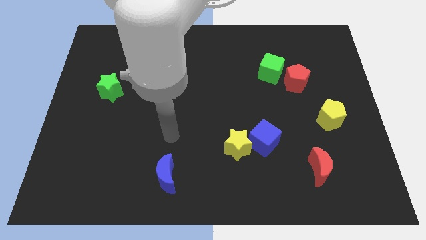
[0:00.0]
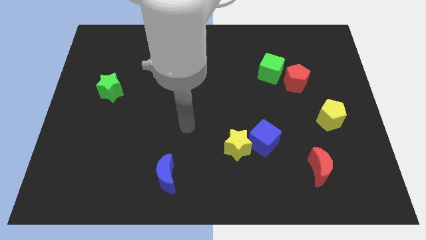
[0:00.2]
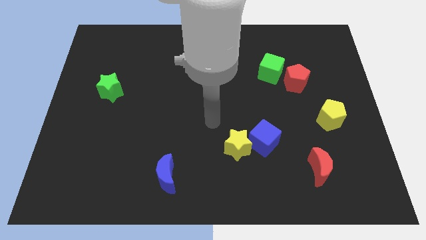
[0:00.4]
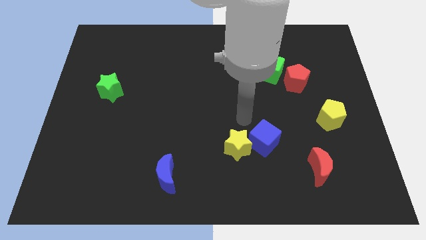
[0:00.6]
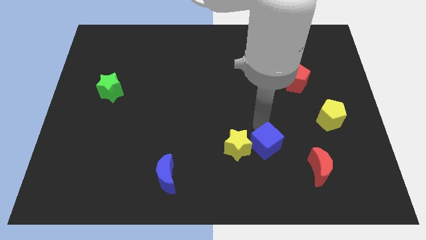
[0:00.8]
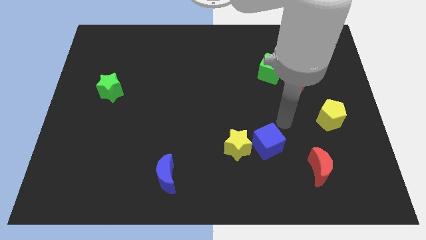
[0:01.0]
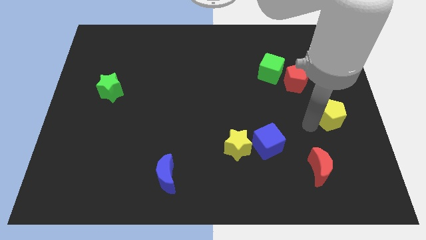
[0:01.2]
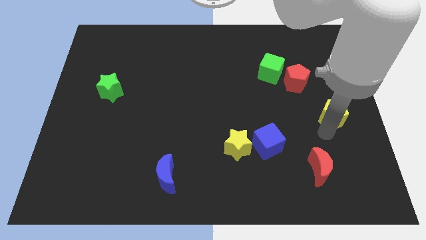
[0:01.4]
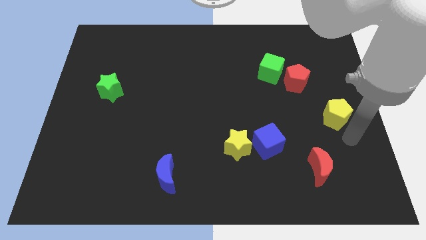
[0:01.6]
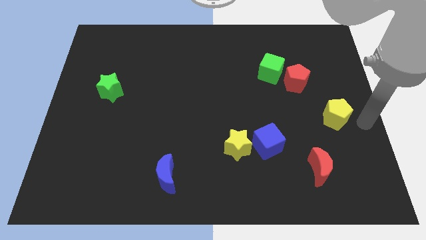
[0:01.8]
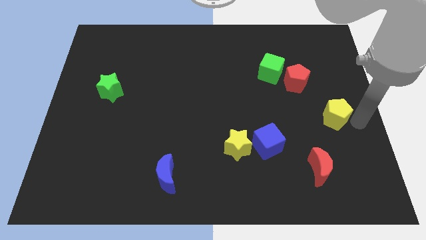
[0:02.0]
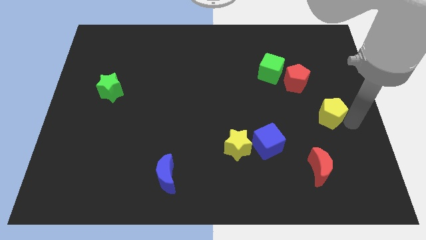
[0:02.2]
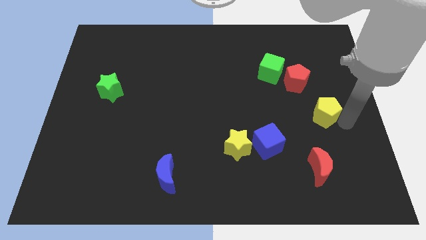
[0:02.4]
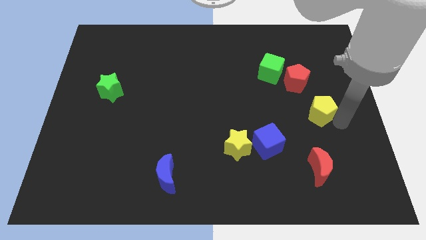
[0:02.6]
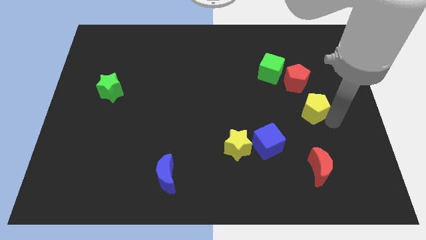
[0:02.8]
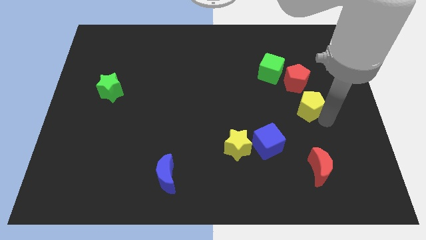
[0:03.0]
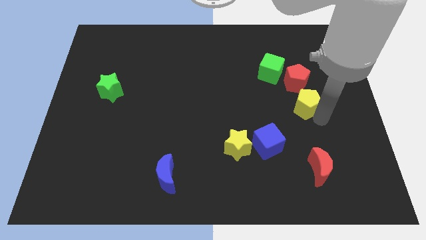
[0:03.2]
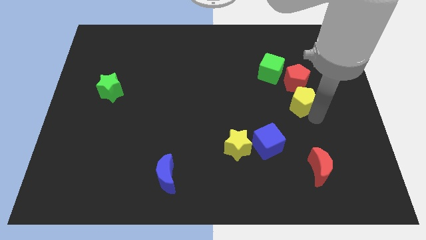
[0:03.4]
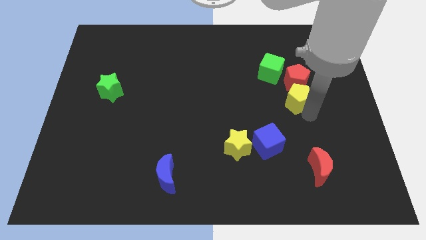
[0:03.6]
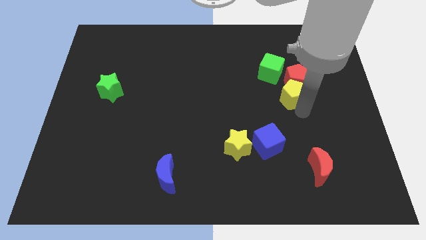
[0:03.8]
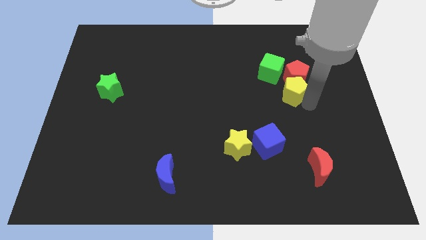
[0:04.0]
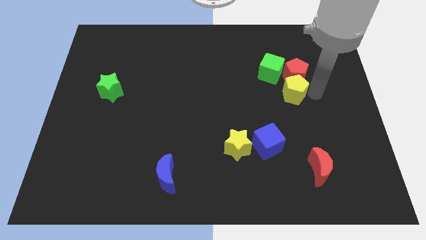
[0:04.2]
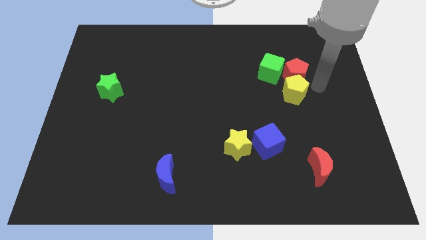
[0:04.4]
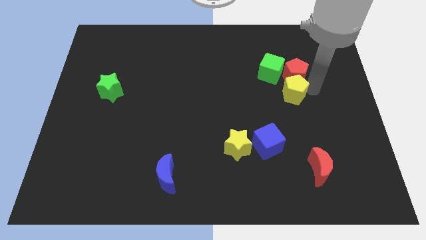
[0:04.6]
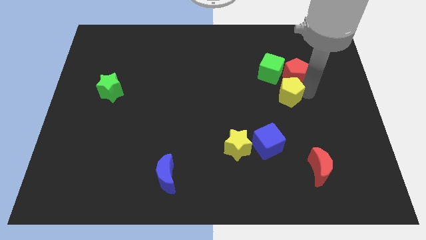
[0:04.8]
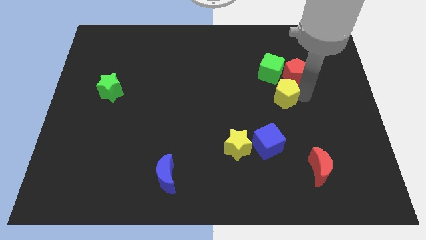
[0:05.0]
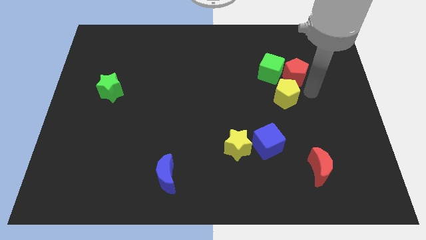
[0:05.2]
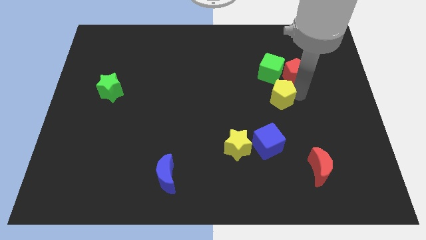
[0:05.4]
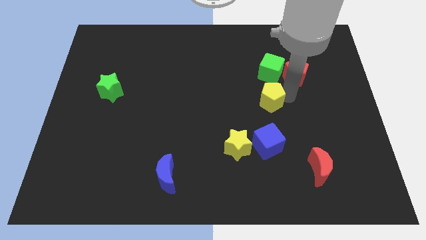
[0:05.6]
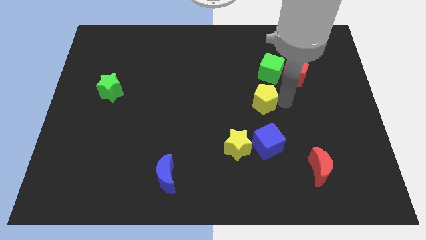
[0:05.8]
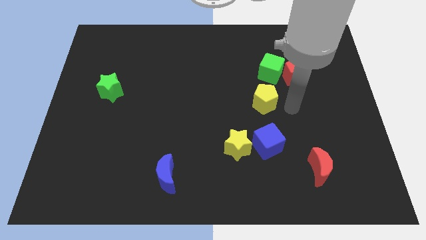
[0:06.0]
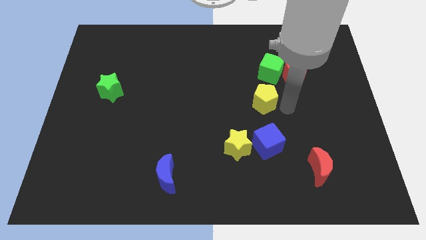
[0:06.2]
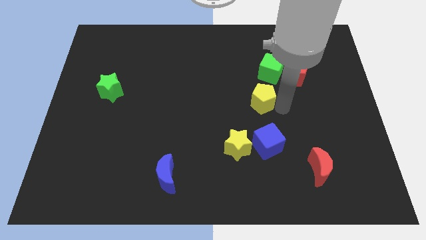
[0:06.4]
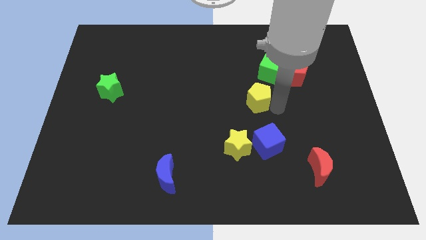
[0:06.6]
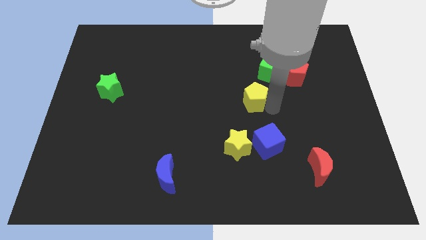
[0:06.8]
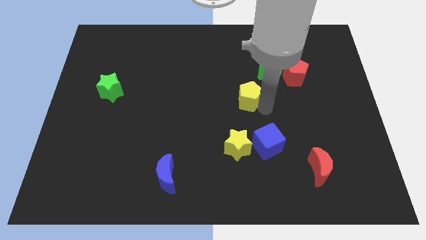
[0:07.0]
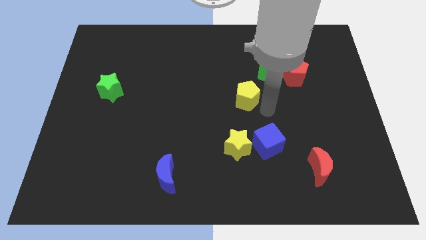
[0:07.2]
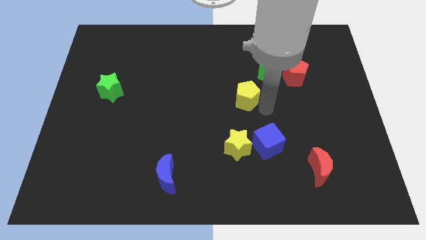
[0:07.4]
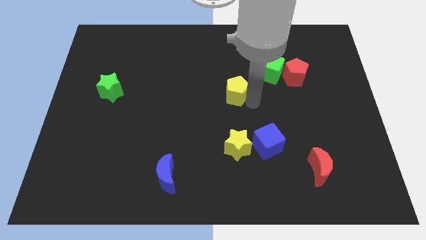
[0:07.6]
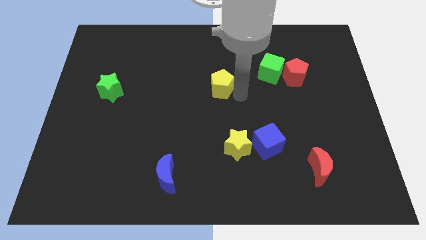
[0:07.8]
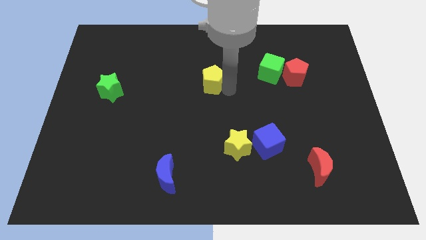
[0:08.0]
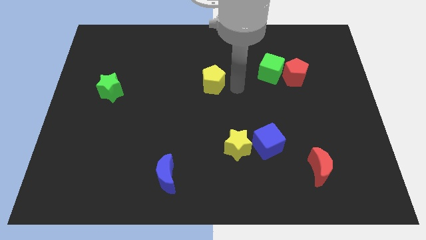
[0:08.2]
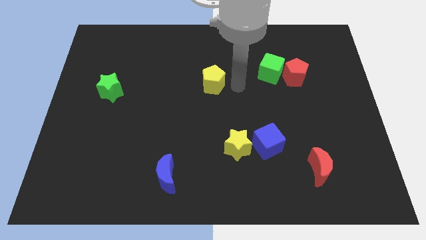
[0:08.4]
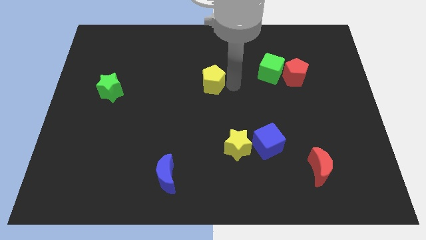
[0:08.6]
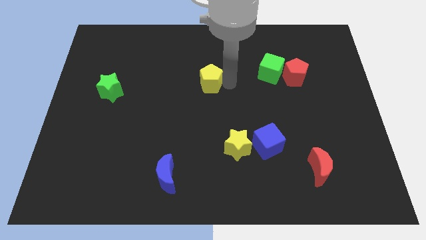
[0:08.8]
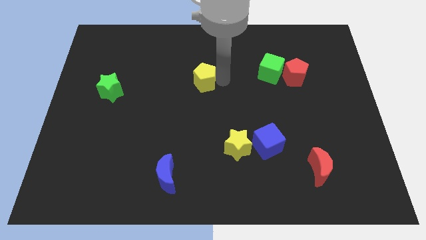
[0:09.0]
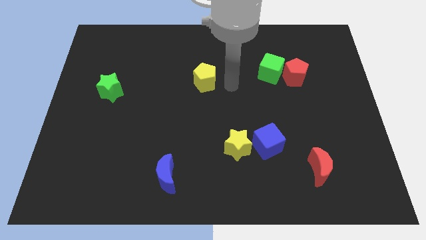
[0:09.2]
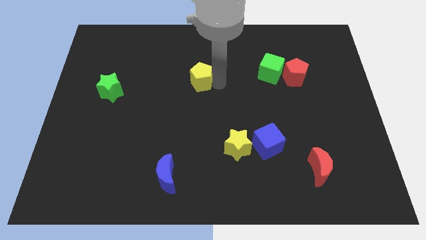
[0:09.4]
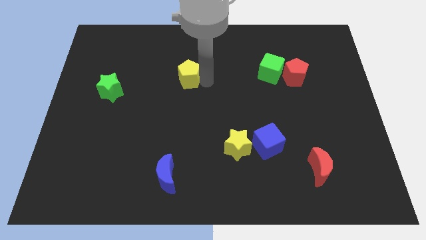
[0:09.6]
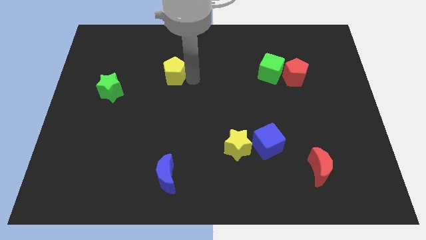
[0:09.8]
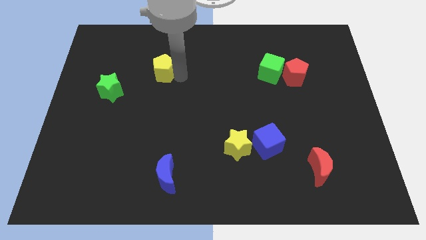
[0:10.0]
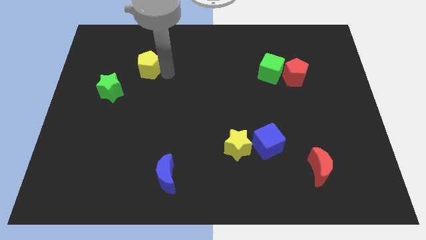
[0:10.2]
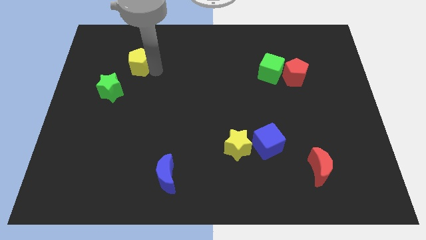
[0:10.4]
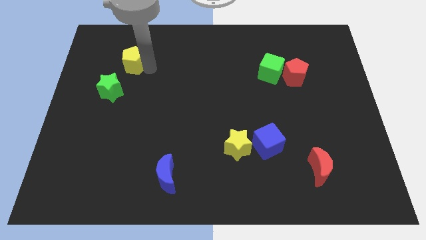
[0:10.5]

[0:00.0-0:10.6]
put the yellow pentagon to the top side of the green star

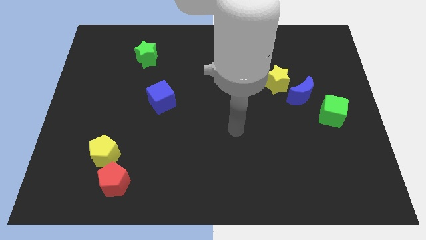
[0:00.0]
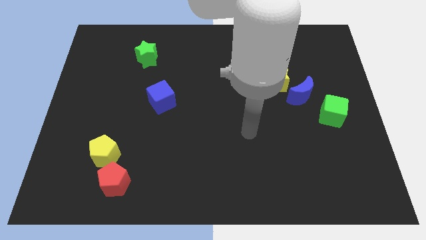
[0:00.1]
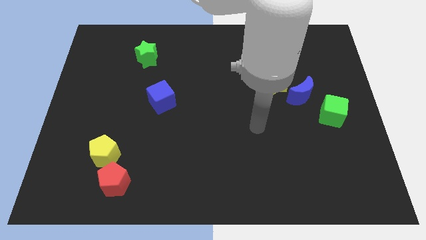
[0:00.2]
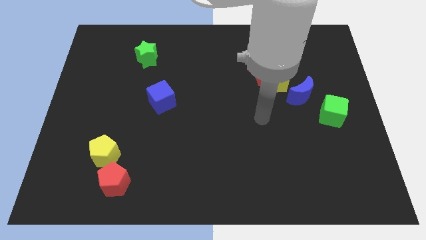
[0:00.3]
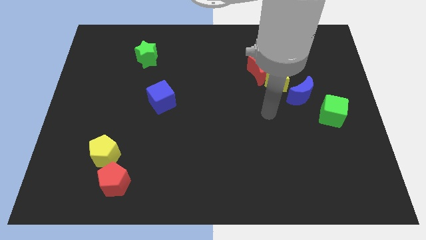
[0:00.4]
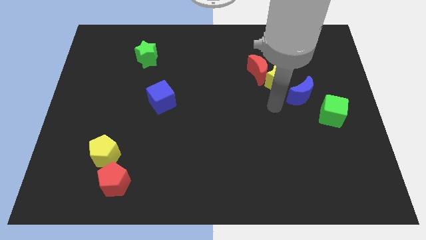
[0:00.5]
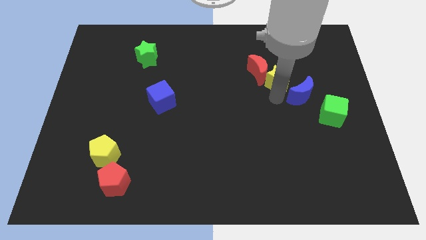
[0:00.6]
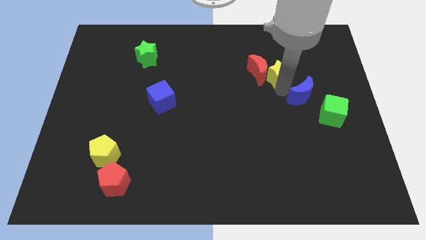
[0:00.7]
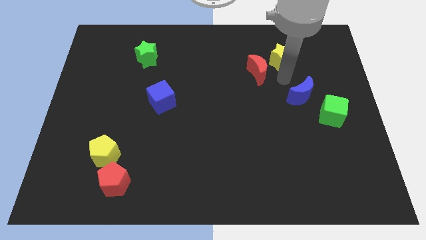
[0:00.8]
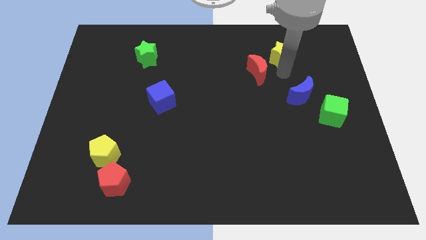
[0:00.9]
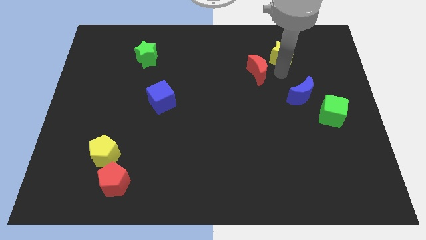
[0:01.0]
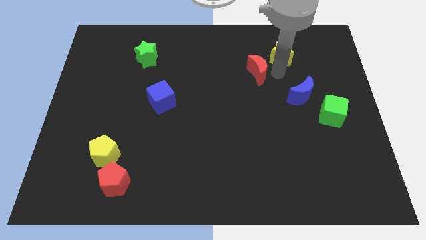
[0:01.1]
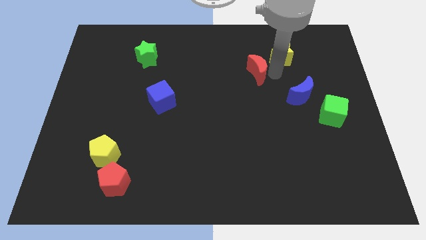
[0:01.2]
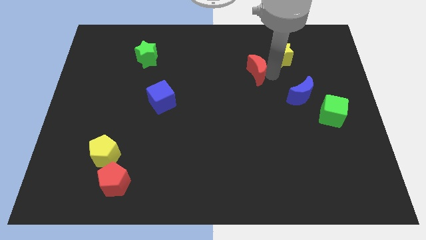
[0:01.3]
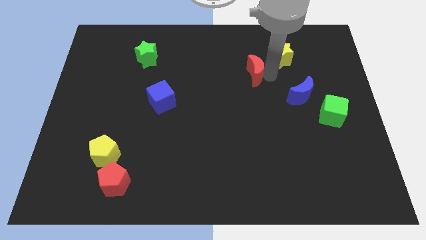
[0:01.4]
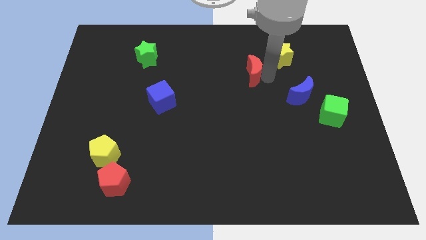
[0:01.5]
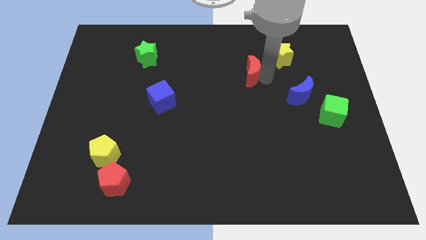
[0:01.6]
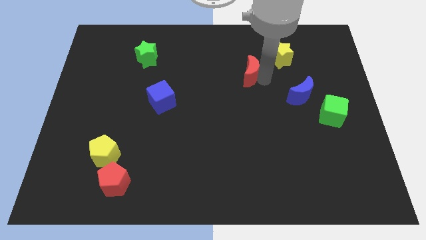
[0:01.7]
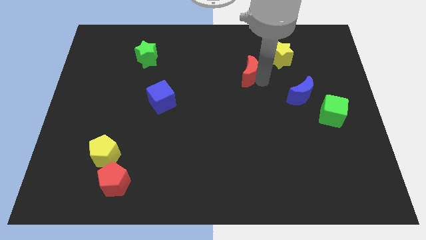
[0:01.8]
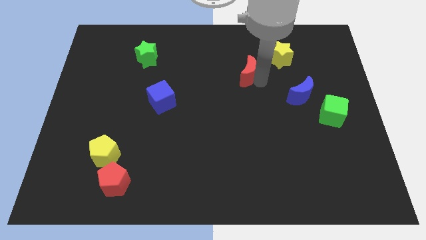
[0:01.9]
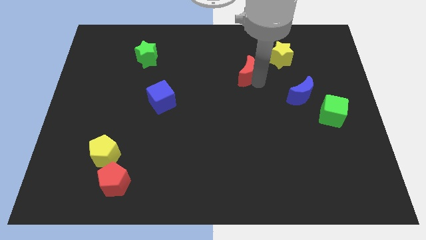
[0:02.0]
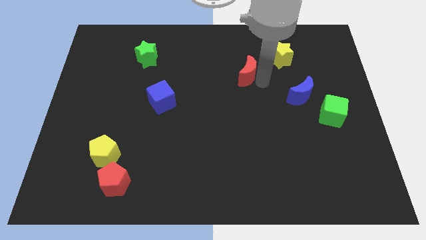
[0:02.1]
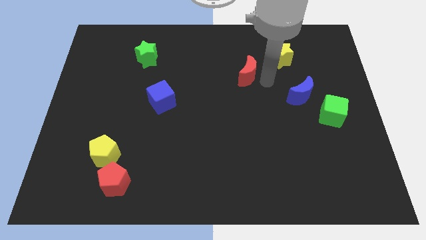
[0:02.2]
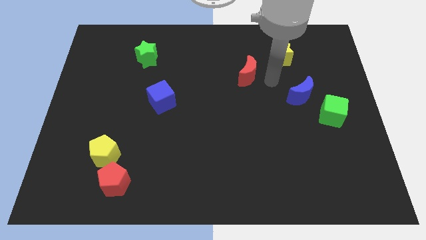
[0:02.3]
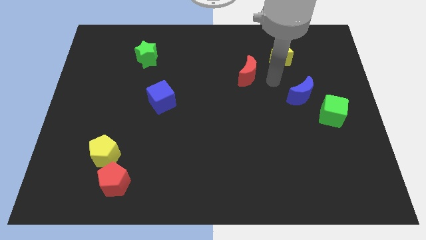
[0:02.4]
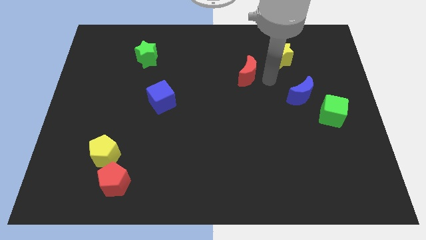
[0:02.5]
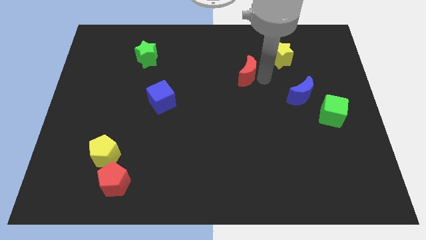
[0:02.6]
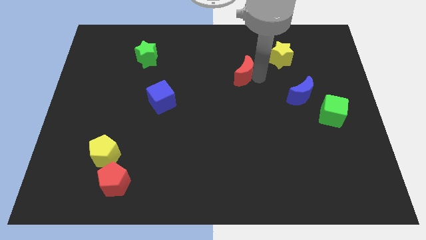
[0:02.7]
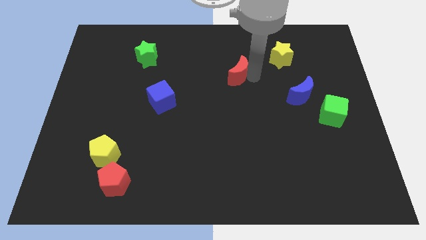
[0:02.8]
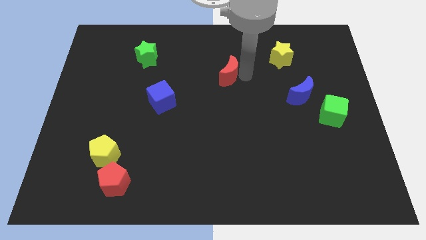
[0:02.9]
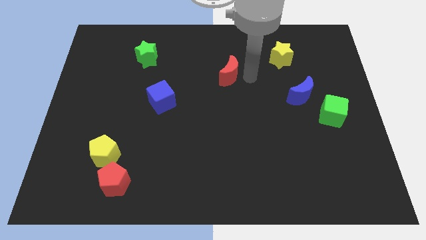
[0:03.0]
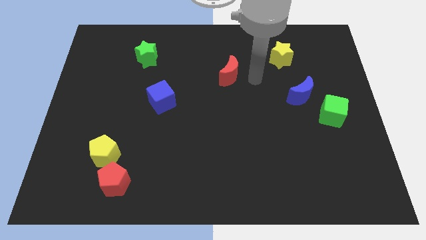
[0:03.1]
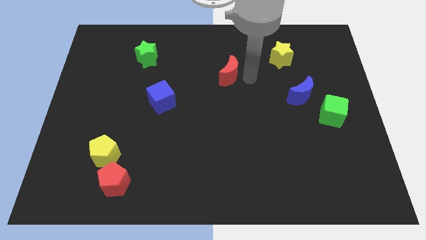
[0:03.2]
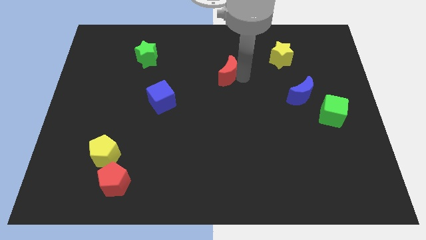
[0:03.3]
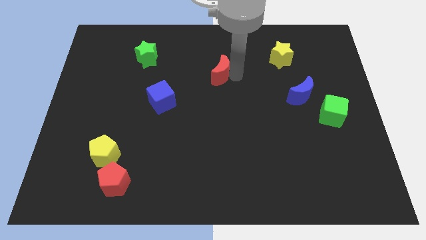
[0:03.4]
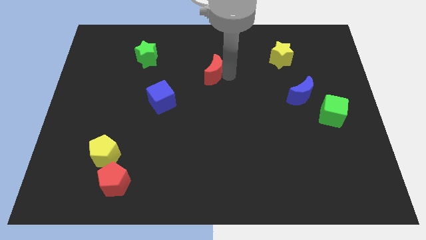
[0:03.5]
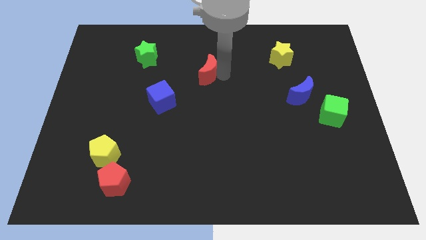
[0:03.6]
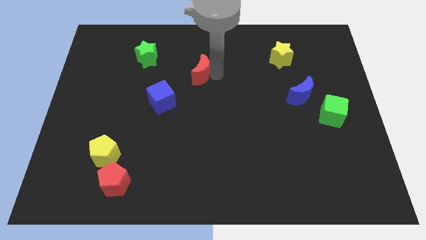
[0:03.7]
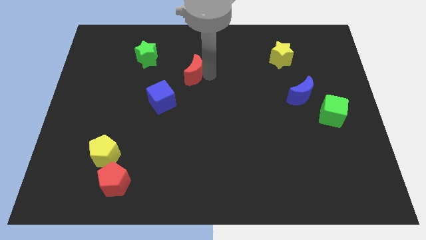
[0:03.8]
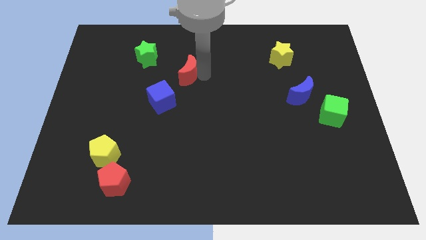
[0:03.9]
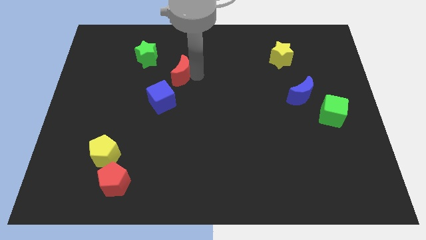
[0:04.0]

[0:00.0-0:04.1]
push the red moon above the blue cube
